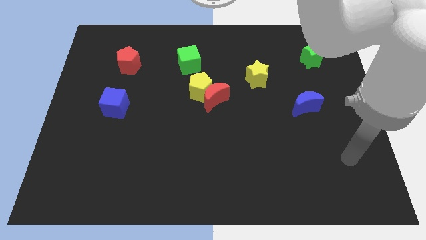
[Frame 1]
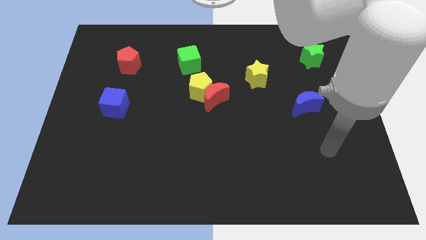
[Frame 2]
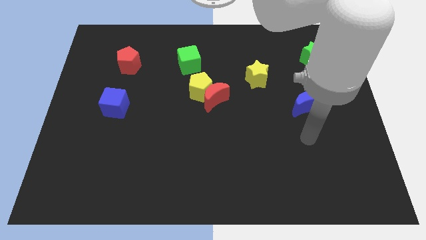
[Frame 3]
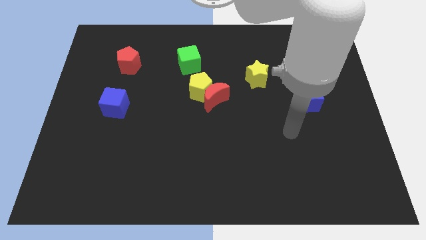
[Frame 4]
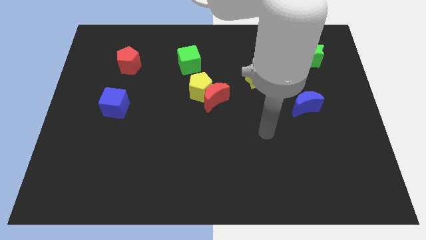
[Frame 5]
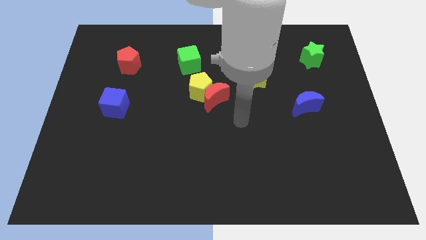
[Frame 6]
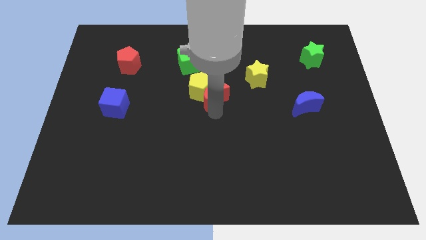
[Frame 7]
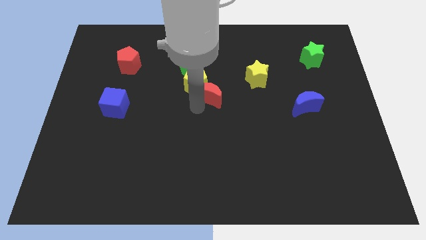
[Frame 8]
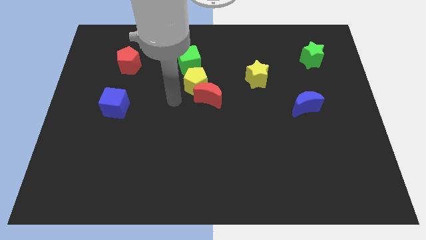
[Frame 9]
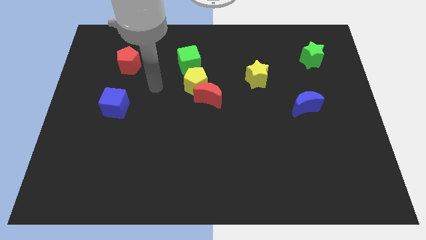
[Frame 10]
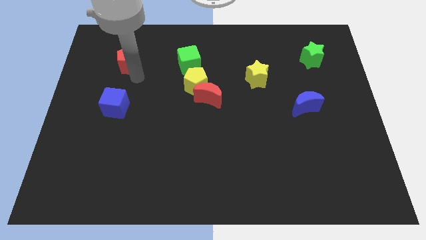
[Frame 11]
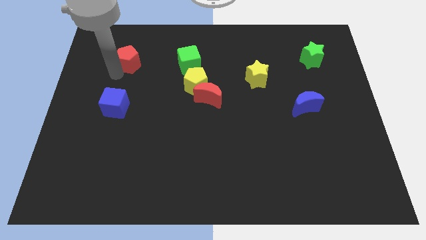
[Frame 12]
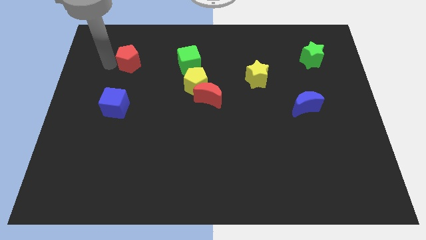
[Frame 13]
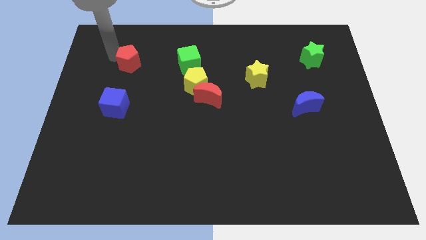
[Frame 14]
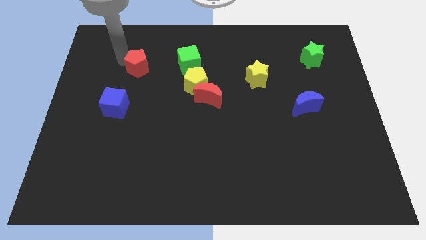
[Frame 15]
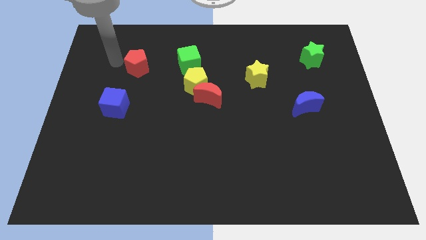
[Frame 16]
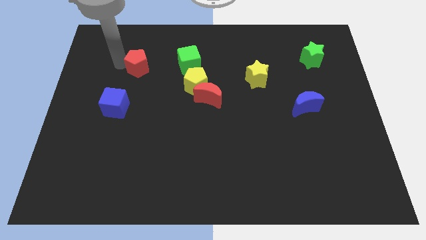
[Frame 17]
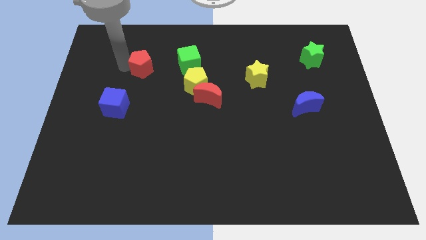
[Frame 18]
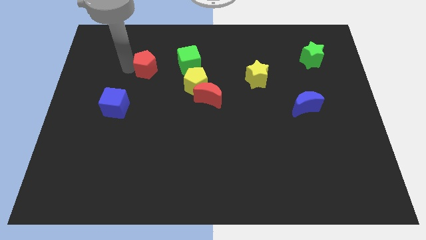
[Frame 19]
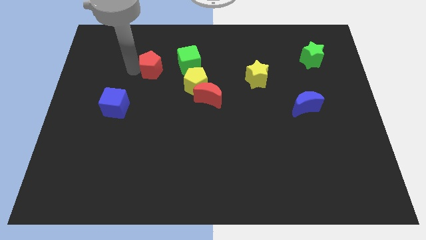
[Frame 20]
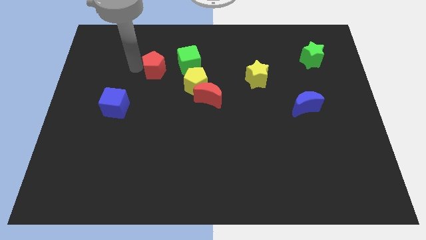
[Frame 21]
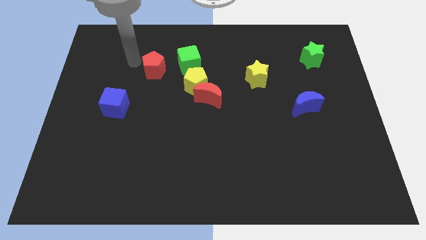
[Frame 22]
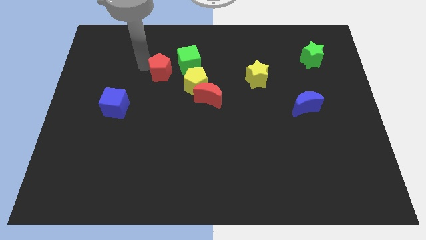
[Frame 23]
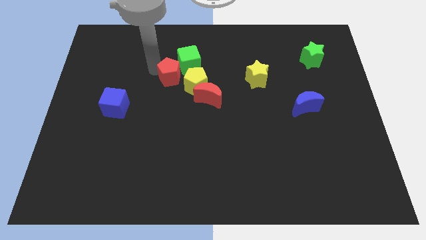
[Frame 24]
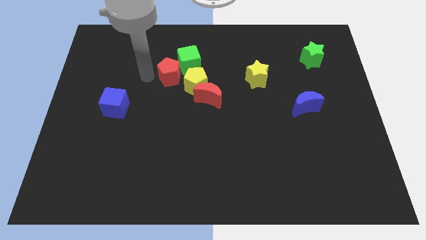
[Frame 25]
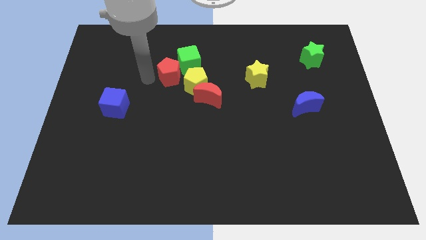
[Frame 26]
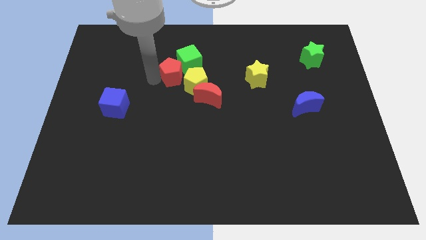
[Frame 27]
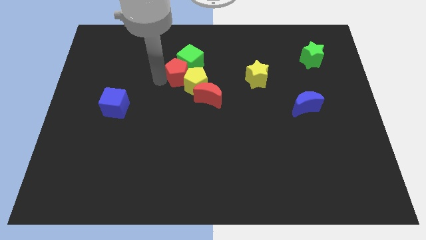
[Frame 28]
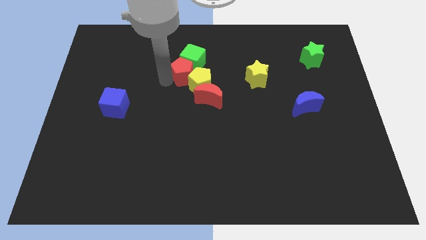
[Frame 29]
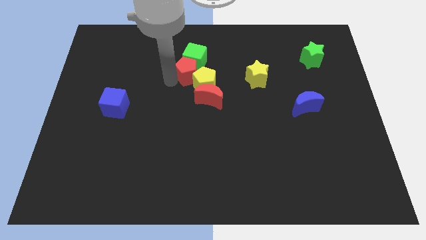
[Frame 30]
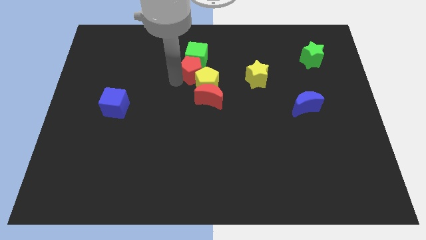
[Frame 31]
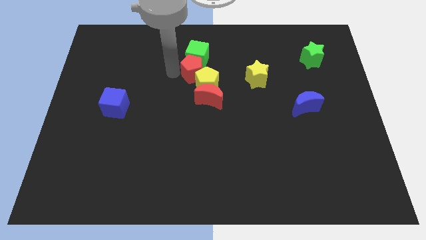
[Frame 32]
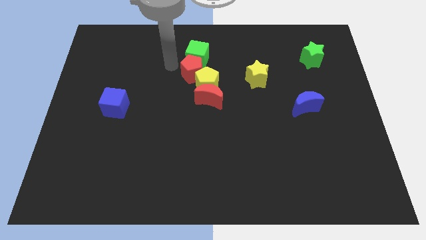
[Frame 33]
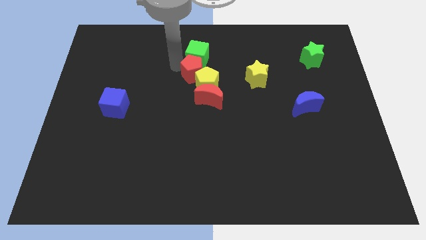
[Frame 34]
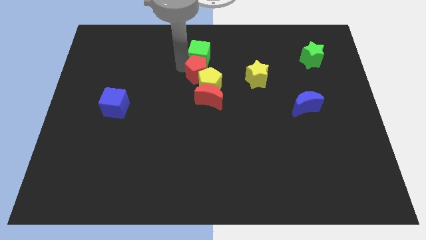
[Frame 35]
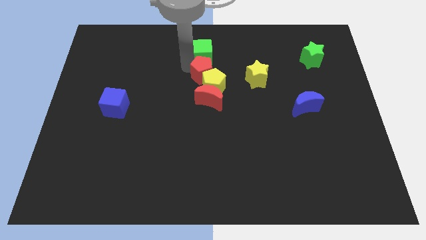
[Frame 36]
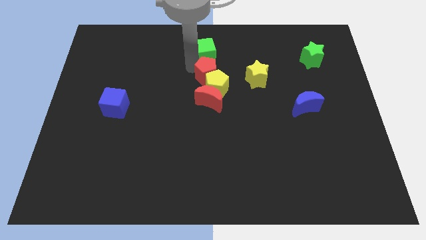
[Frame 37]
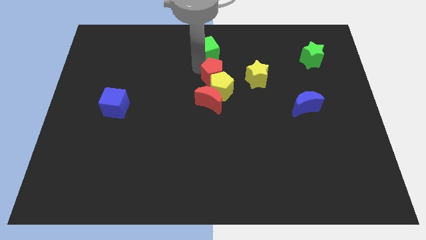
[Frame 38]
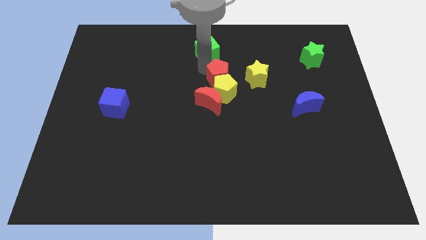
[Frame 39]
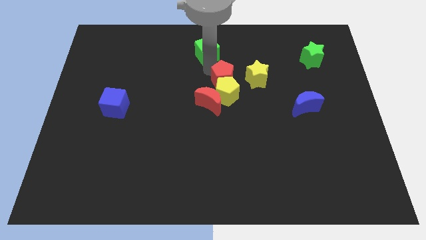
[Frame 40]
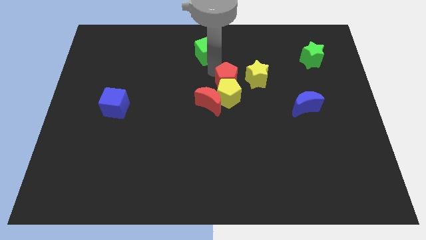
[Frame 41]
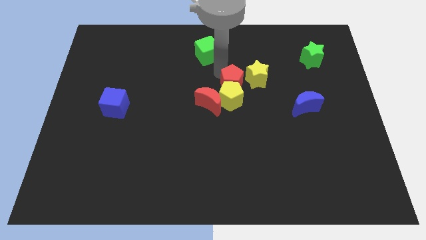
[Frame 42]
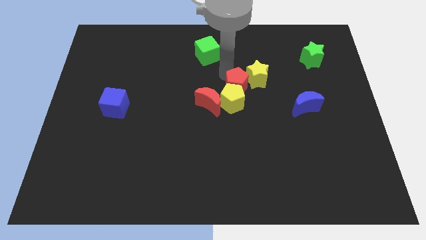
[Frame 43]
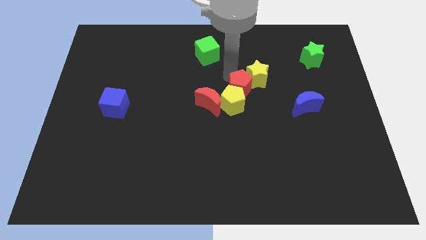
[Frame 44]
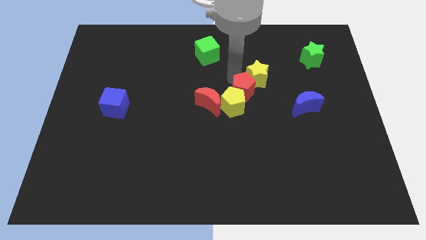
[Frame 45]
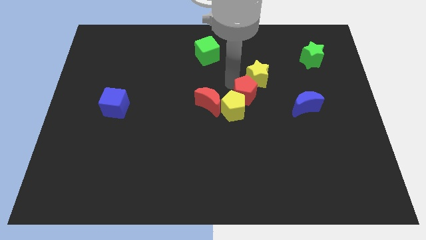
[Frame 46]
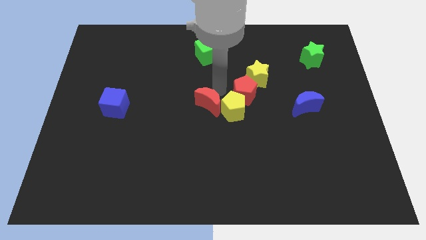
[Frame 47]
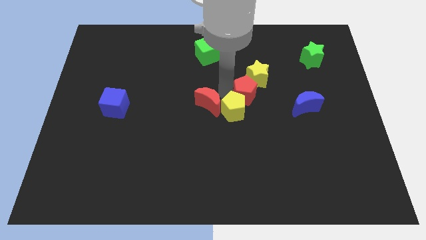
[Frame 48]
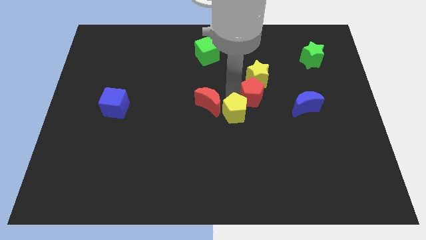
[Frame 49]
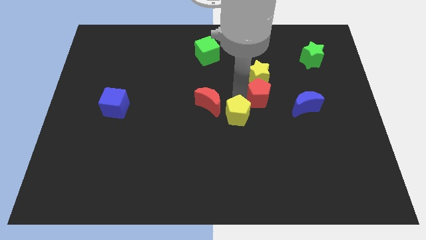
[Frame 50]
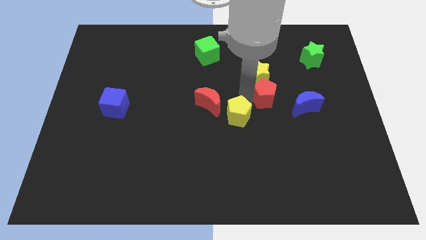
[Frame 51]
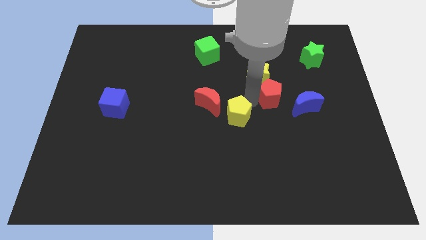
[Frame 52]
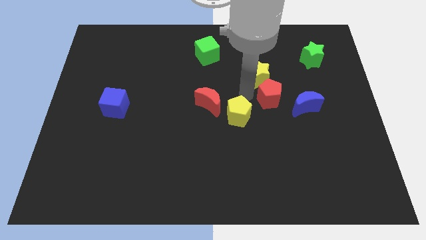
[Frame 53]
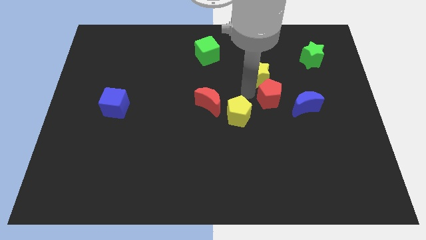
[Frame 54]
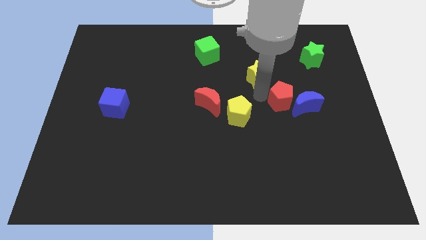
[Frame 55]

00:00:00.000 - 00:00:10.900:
put the red pentagon towards the blue moon
